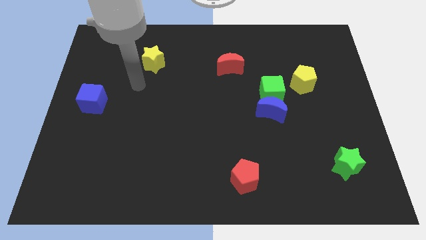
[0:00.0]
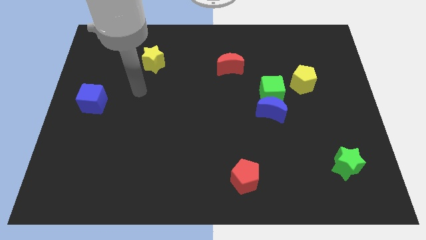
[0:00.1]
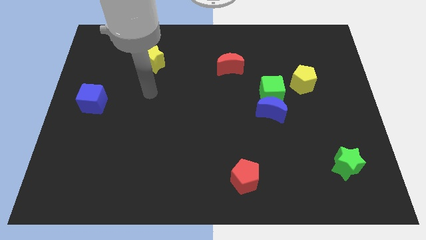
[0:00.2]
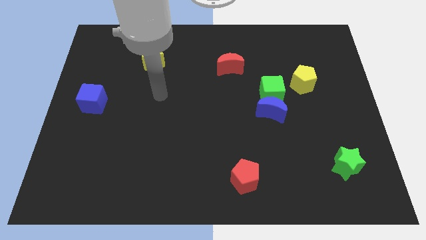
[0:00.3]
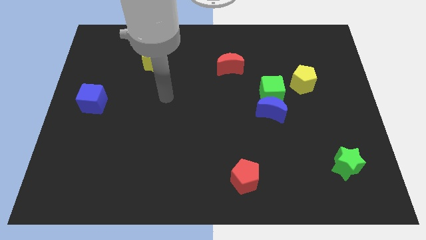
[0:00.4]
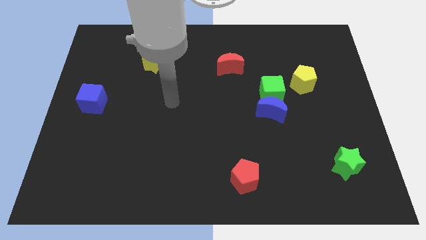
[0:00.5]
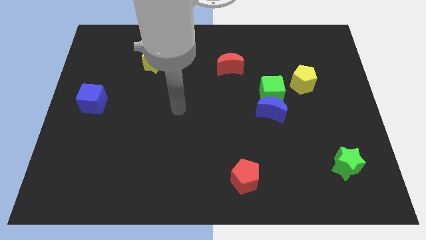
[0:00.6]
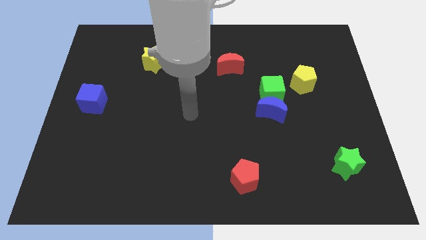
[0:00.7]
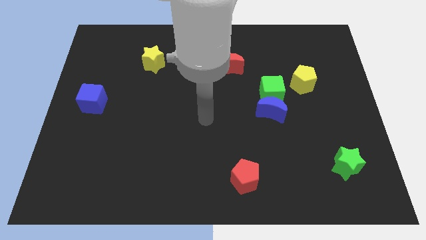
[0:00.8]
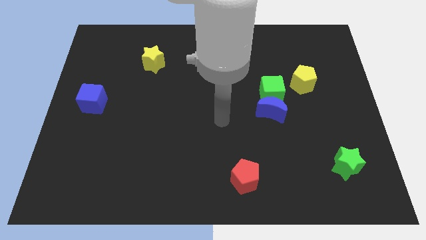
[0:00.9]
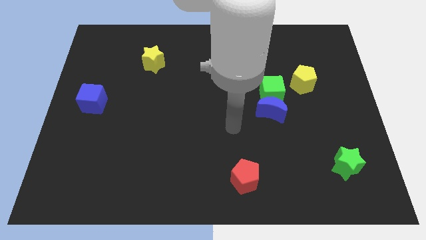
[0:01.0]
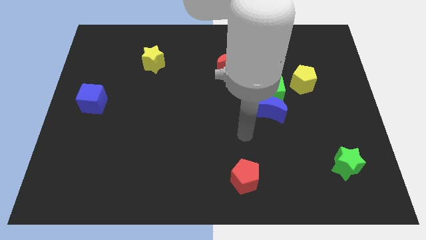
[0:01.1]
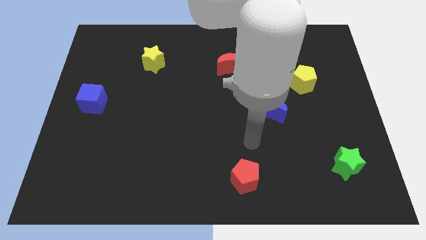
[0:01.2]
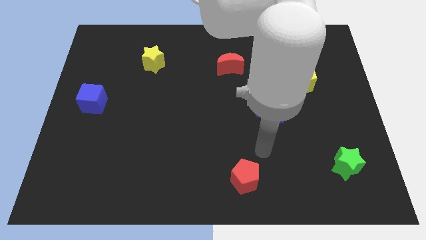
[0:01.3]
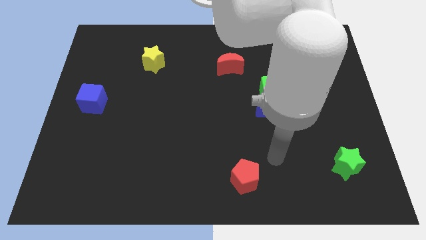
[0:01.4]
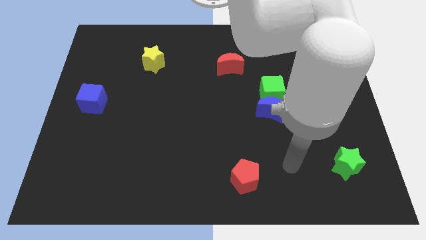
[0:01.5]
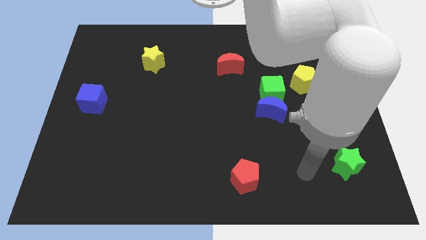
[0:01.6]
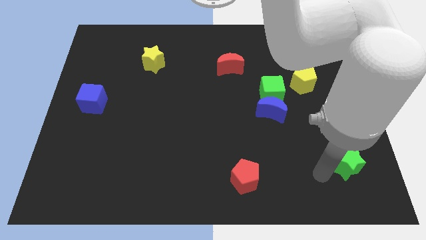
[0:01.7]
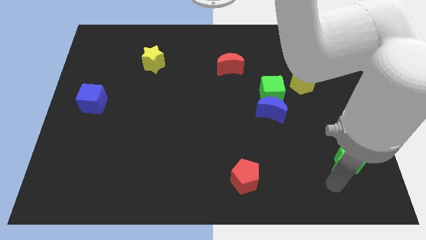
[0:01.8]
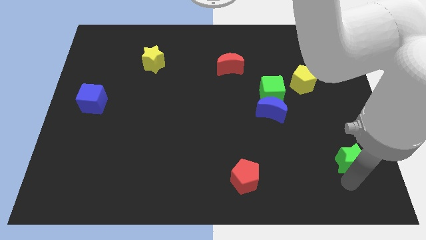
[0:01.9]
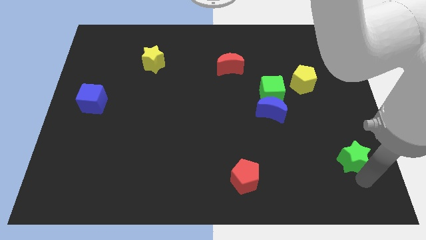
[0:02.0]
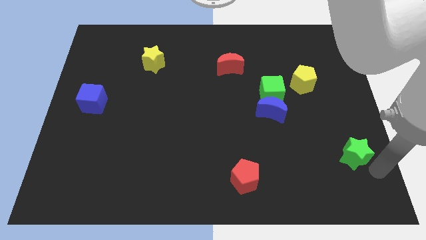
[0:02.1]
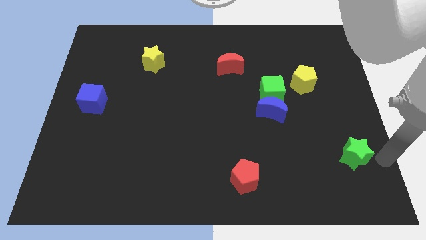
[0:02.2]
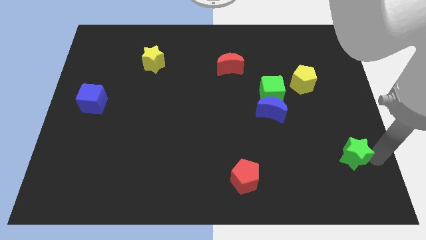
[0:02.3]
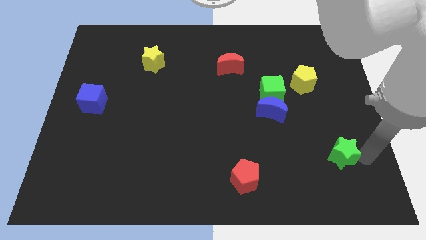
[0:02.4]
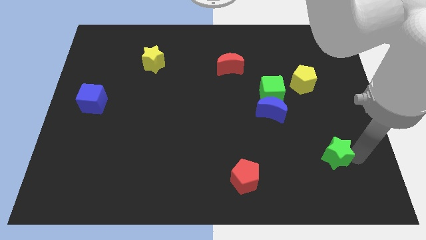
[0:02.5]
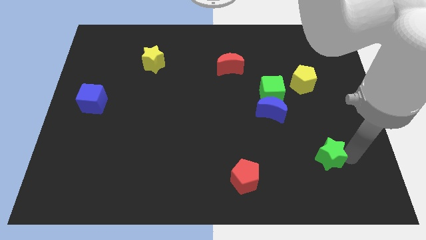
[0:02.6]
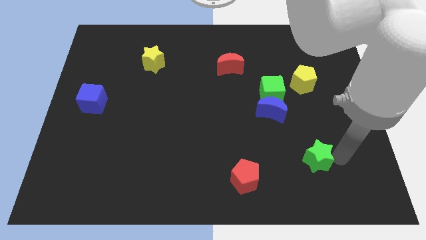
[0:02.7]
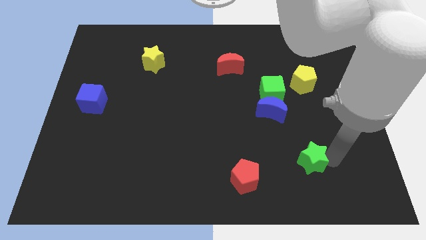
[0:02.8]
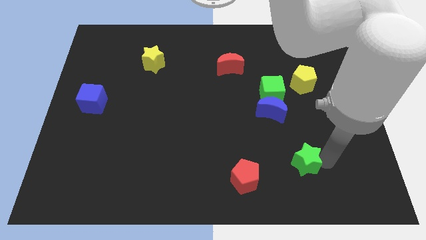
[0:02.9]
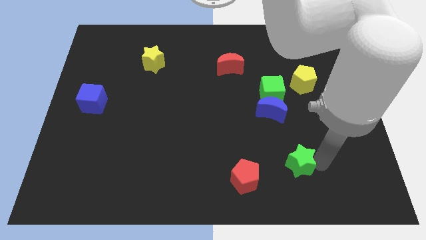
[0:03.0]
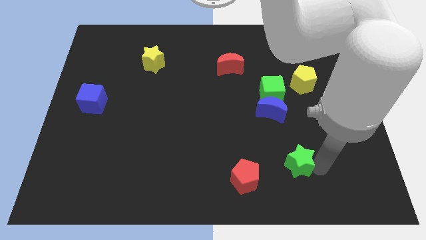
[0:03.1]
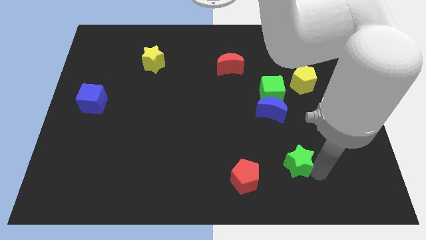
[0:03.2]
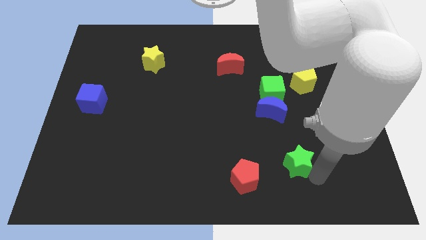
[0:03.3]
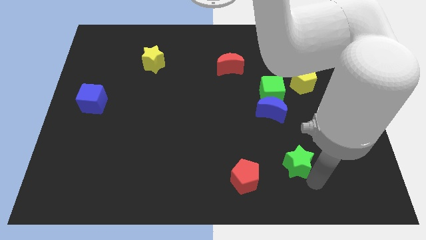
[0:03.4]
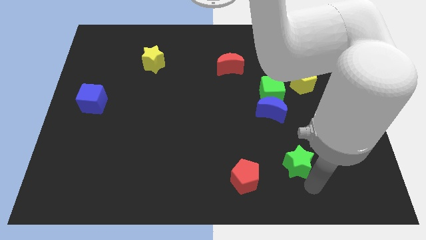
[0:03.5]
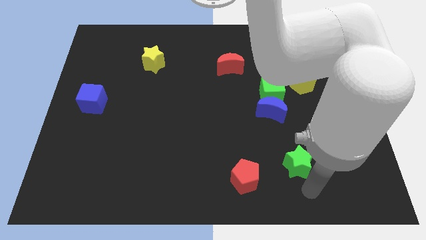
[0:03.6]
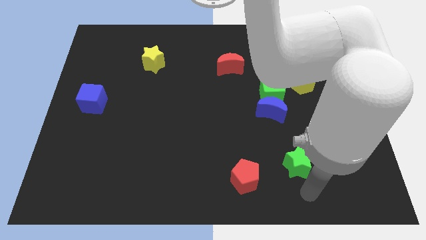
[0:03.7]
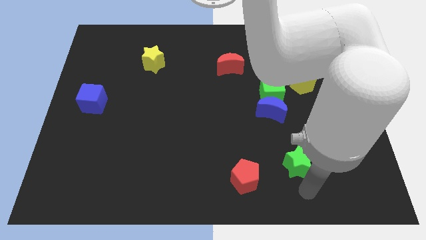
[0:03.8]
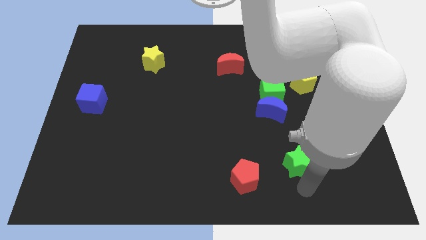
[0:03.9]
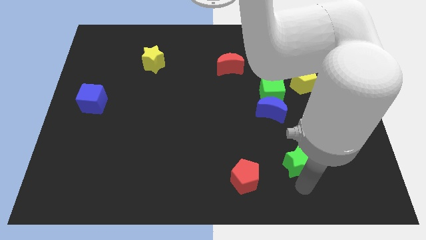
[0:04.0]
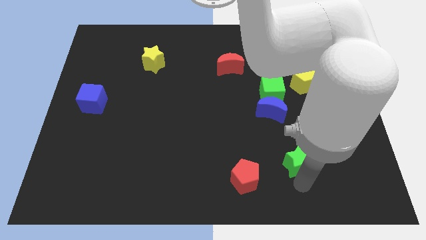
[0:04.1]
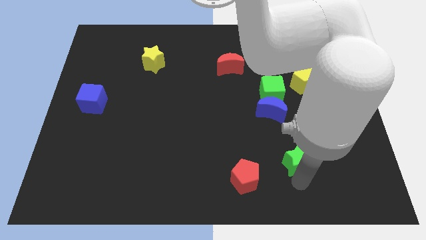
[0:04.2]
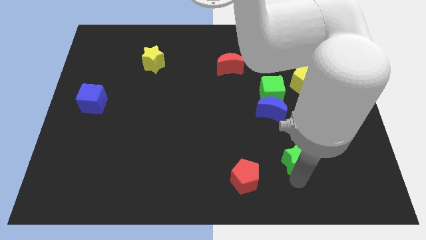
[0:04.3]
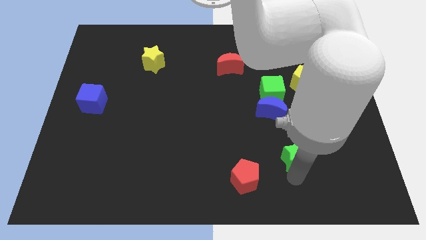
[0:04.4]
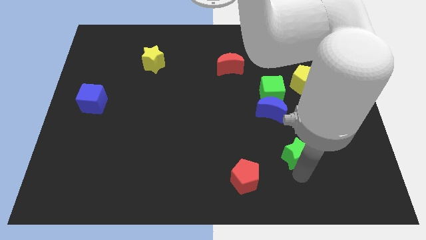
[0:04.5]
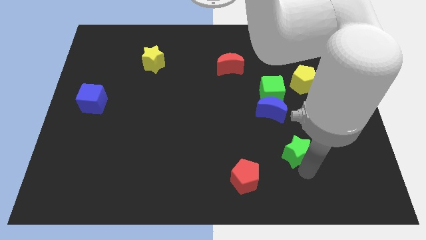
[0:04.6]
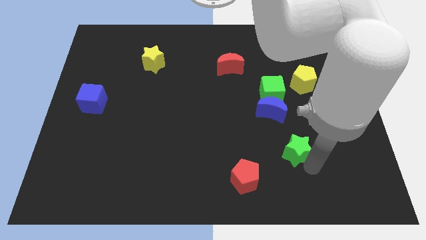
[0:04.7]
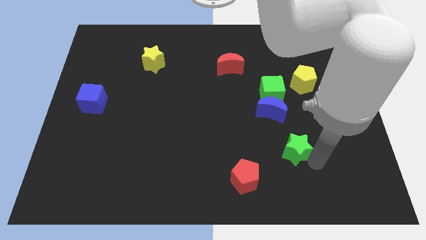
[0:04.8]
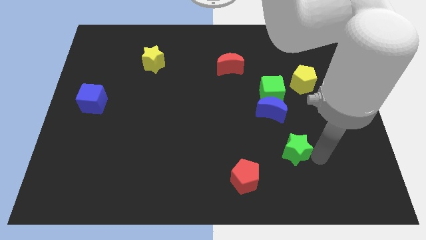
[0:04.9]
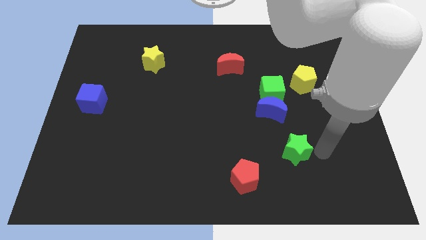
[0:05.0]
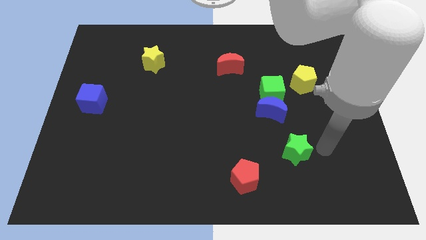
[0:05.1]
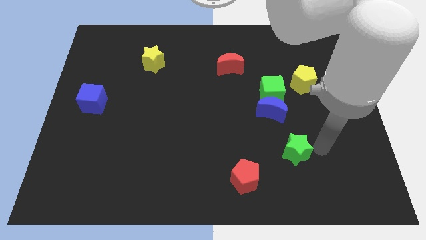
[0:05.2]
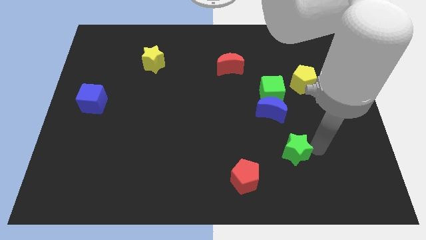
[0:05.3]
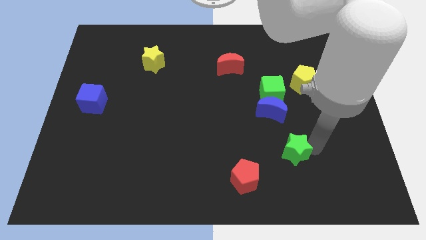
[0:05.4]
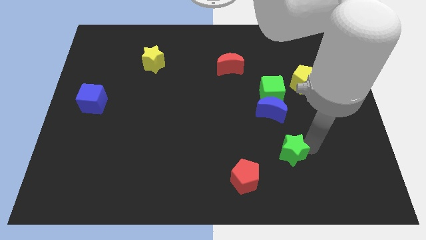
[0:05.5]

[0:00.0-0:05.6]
move the green star to the top right side of the red pentagon

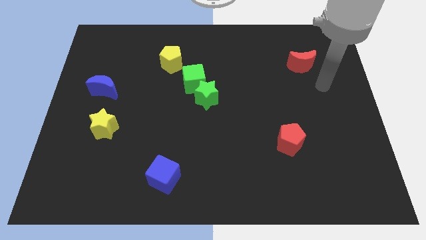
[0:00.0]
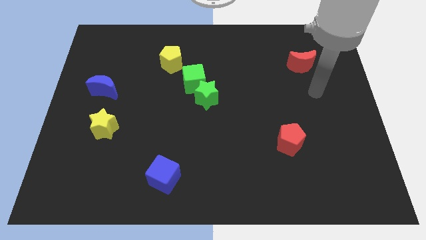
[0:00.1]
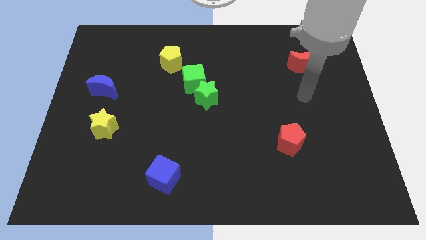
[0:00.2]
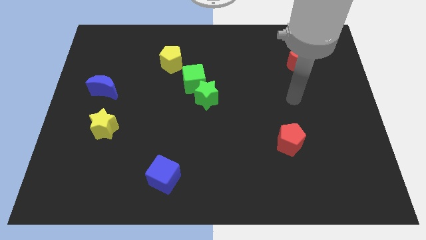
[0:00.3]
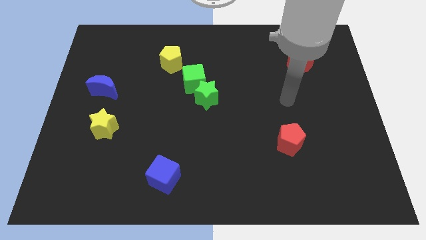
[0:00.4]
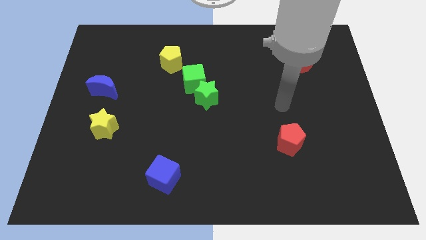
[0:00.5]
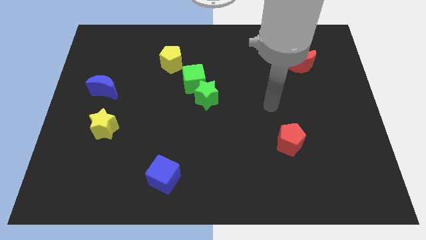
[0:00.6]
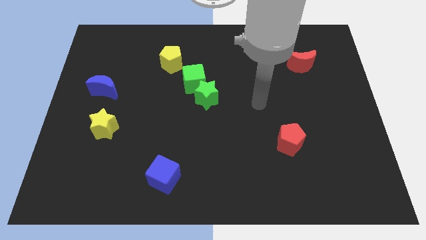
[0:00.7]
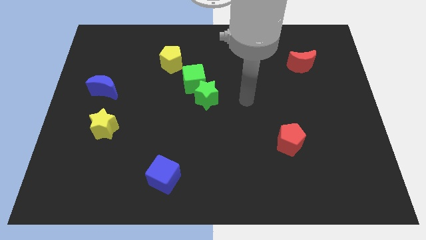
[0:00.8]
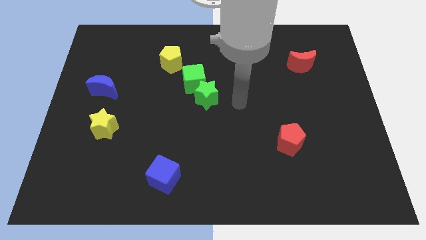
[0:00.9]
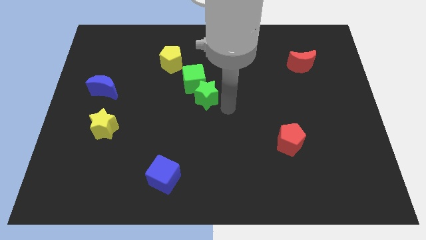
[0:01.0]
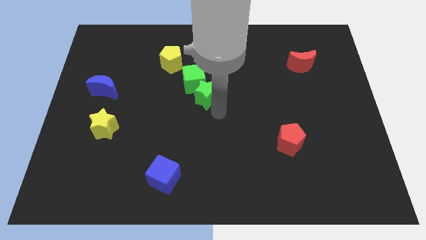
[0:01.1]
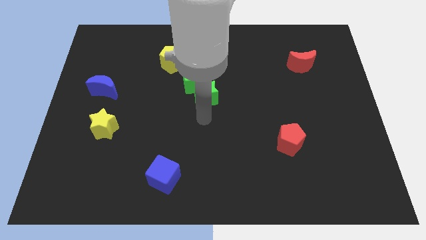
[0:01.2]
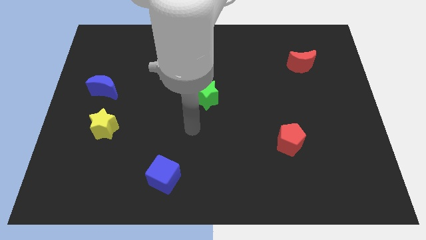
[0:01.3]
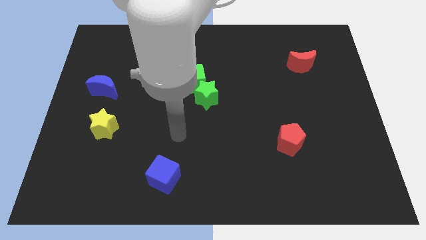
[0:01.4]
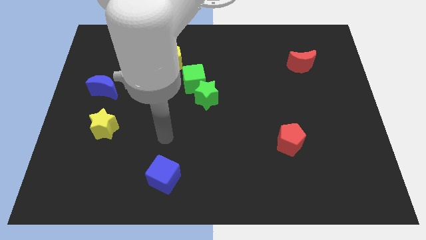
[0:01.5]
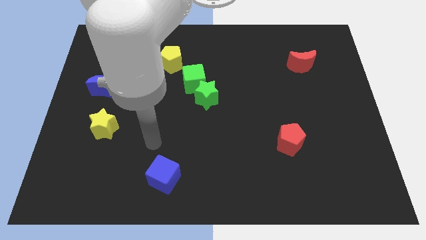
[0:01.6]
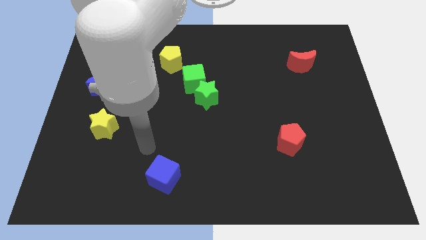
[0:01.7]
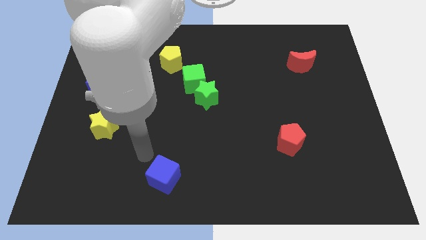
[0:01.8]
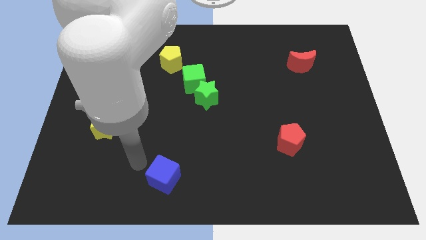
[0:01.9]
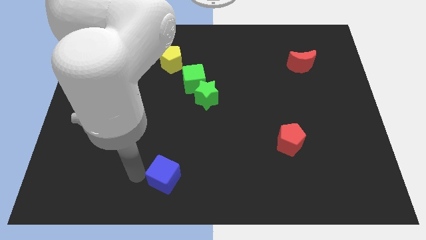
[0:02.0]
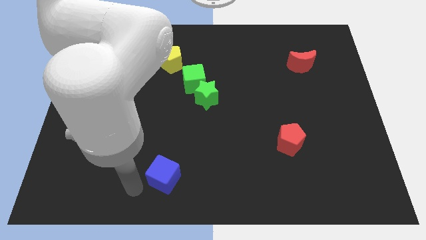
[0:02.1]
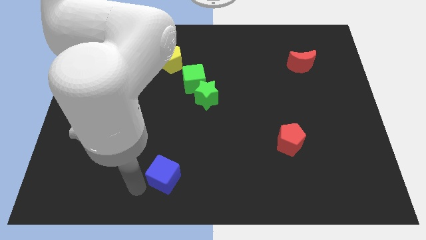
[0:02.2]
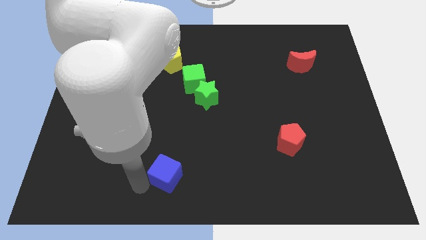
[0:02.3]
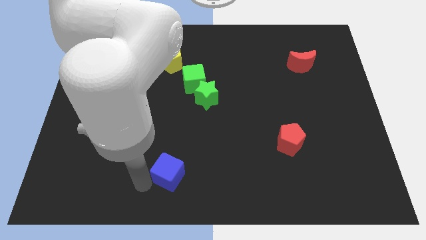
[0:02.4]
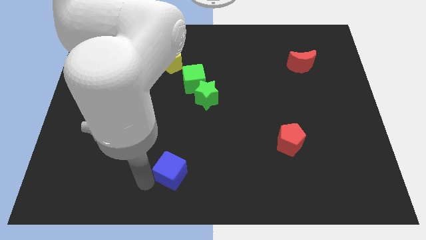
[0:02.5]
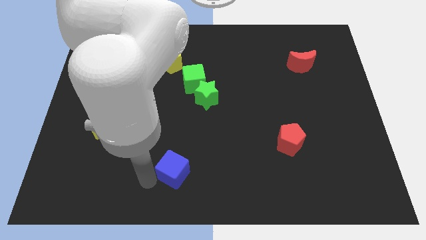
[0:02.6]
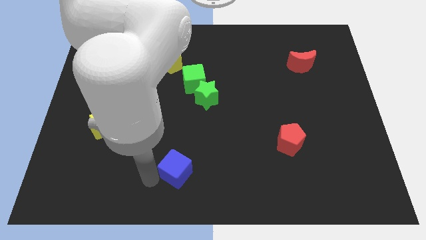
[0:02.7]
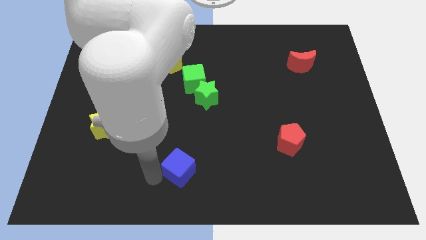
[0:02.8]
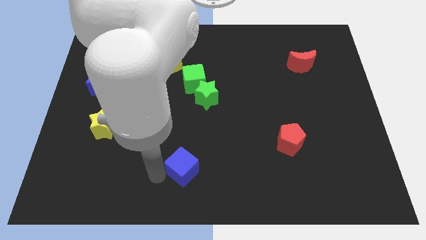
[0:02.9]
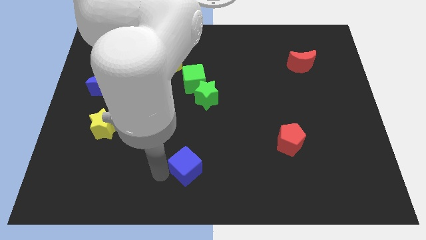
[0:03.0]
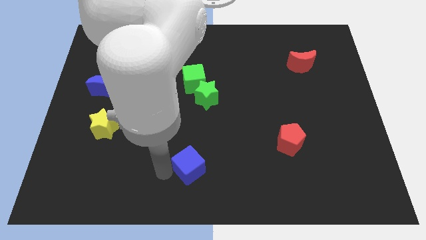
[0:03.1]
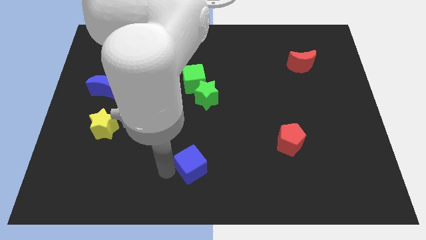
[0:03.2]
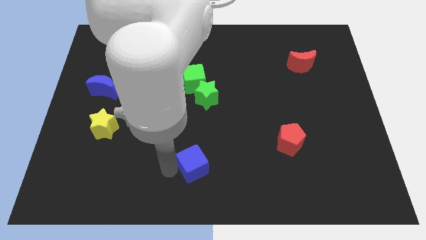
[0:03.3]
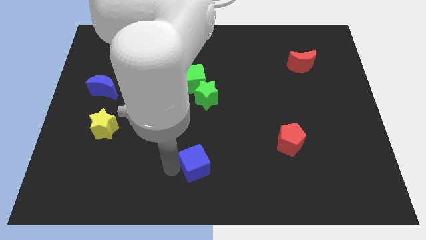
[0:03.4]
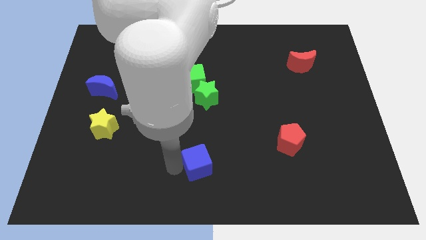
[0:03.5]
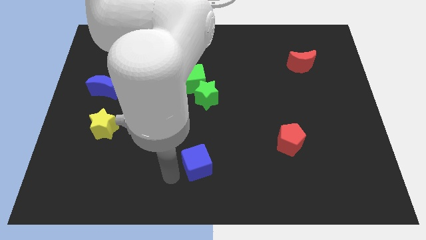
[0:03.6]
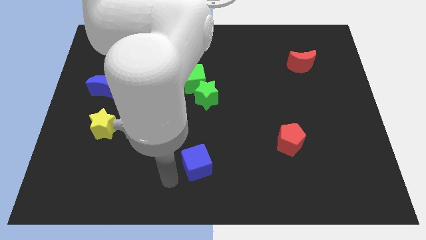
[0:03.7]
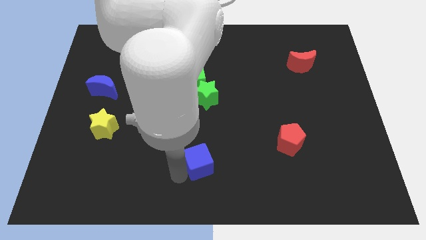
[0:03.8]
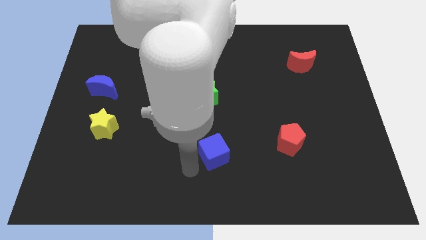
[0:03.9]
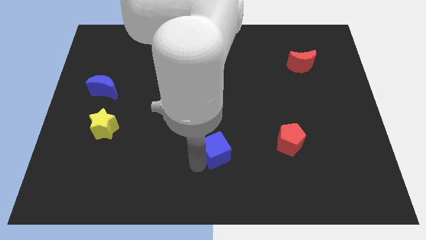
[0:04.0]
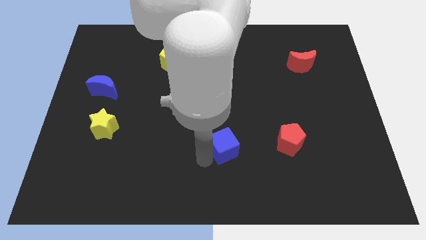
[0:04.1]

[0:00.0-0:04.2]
move the blue cube left of the red pentagon
